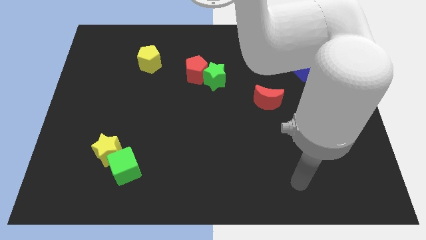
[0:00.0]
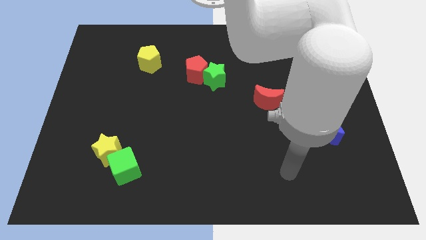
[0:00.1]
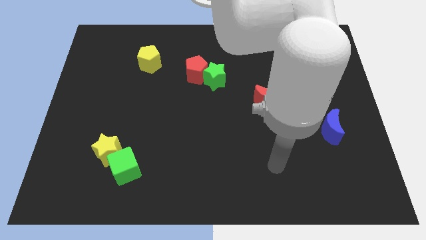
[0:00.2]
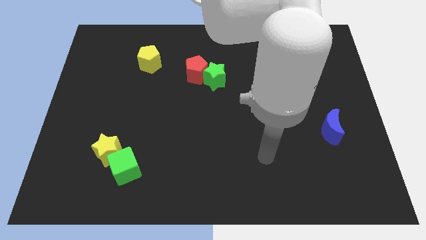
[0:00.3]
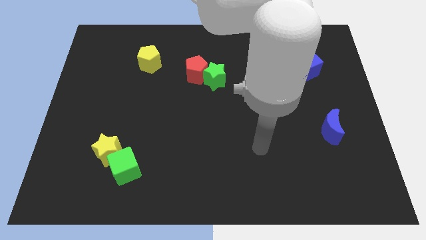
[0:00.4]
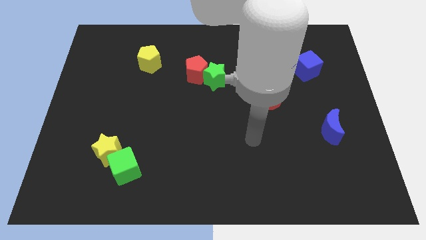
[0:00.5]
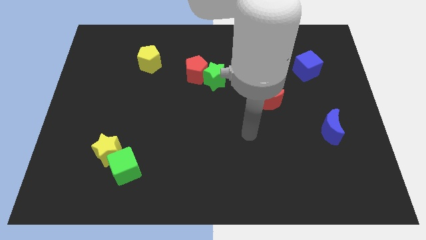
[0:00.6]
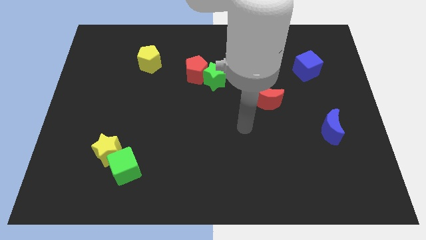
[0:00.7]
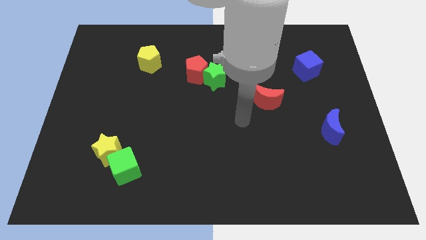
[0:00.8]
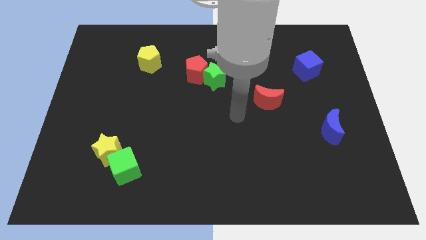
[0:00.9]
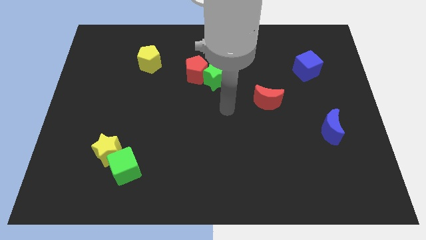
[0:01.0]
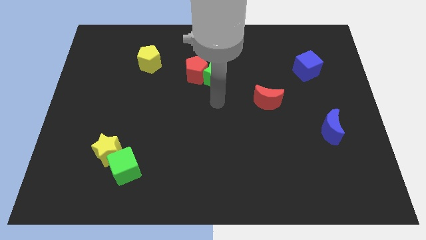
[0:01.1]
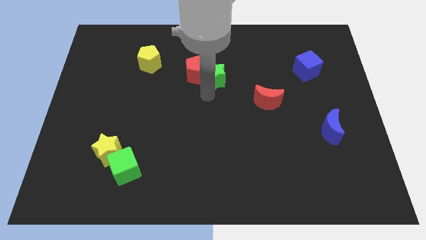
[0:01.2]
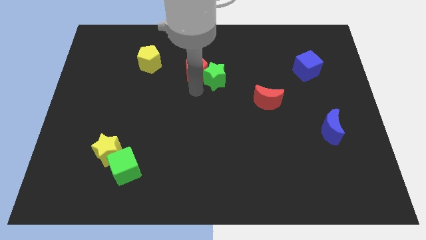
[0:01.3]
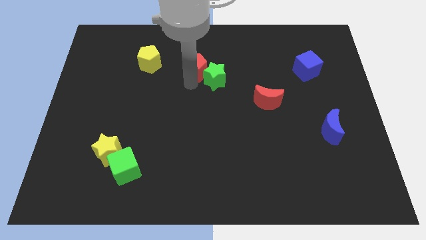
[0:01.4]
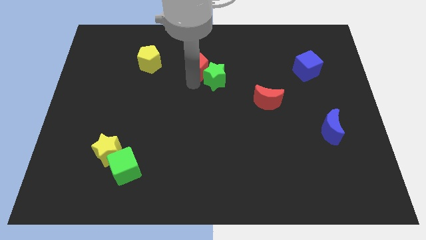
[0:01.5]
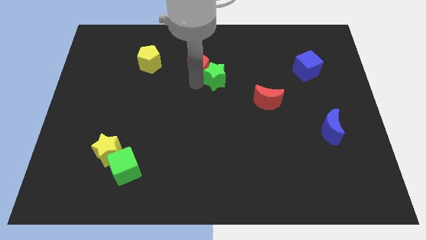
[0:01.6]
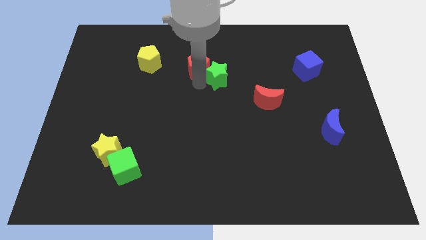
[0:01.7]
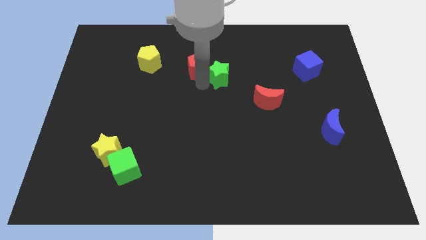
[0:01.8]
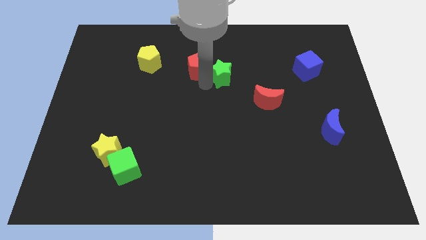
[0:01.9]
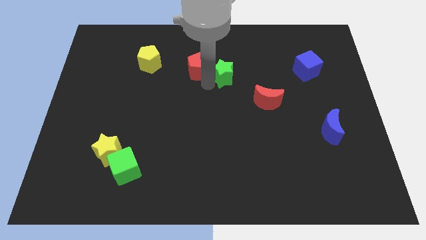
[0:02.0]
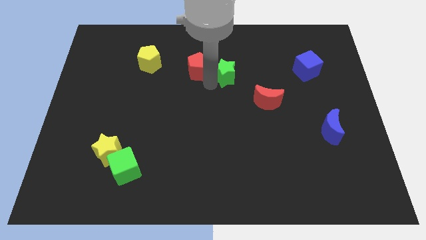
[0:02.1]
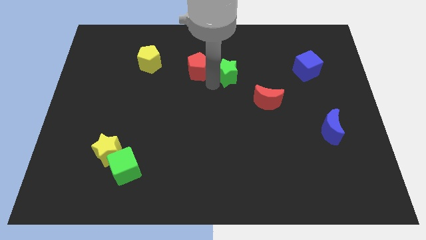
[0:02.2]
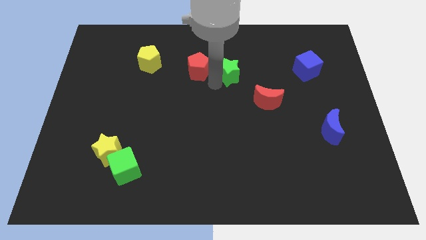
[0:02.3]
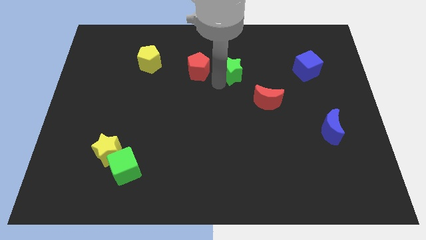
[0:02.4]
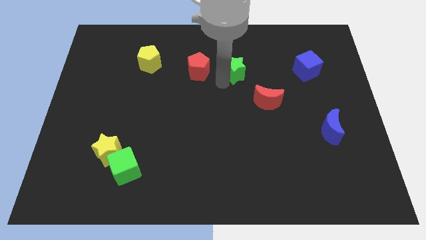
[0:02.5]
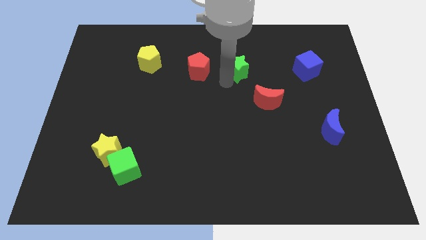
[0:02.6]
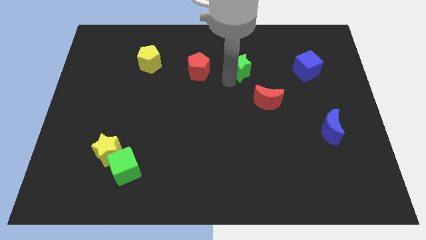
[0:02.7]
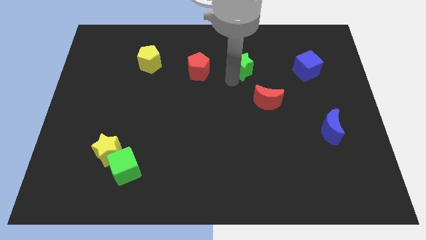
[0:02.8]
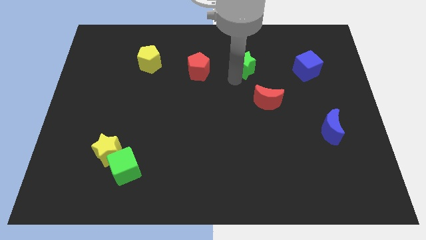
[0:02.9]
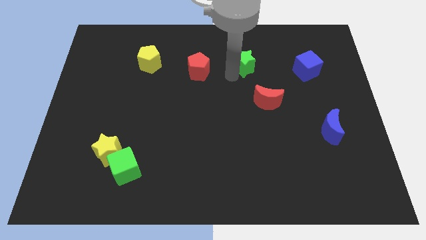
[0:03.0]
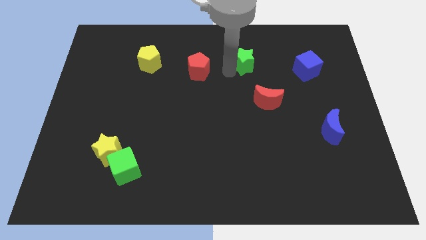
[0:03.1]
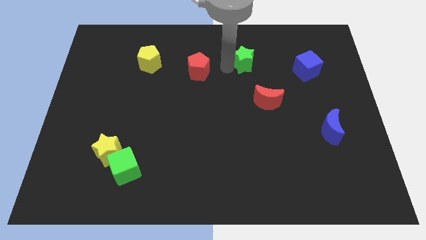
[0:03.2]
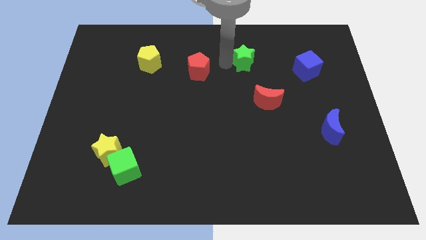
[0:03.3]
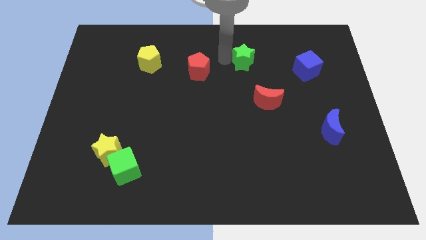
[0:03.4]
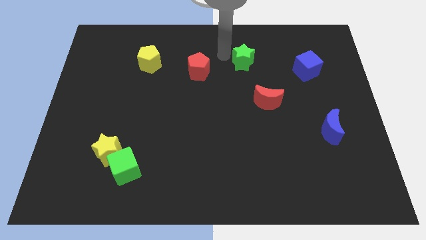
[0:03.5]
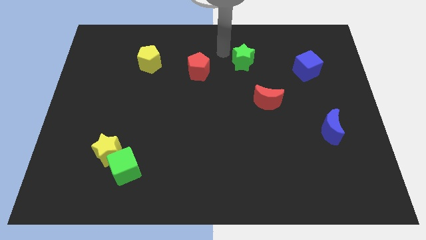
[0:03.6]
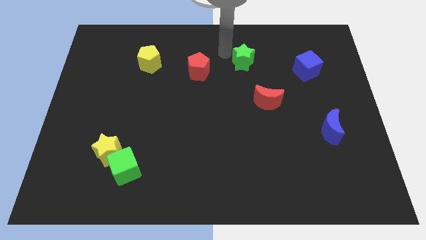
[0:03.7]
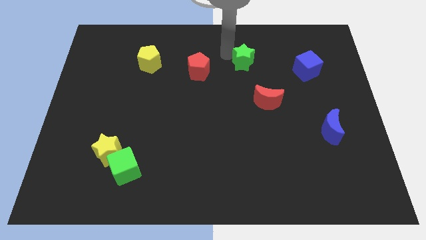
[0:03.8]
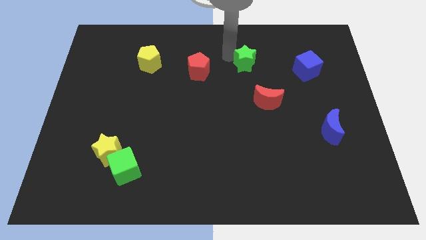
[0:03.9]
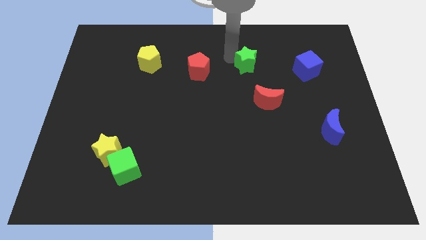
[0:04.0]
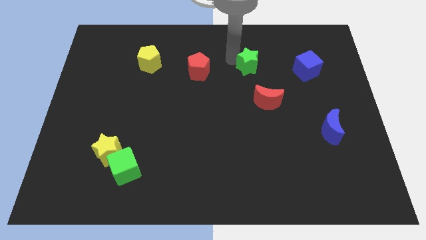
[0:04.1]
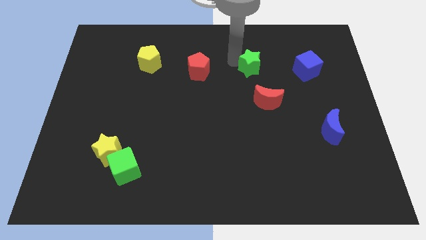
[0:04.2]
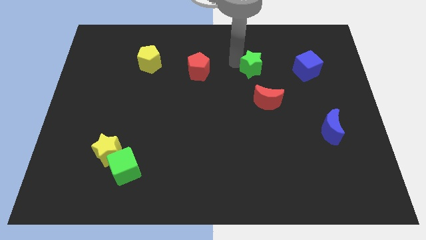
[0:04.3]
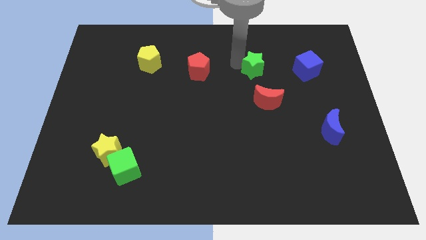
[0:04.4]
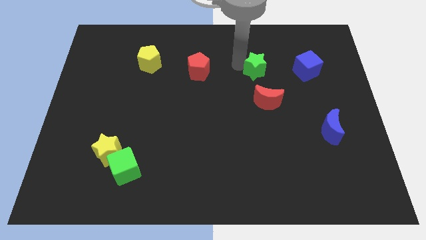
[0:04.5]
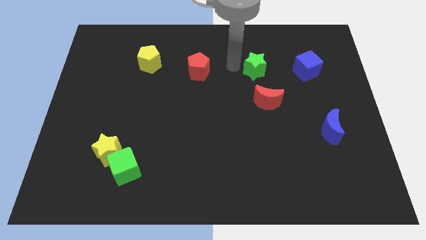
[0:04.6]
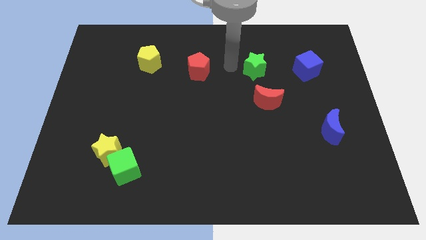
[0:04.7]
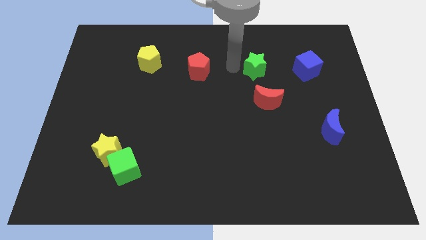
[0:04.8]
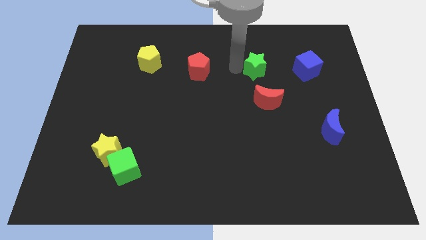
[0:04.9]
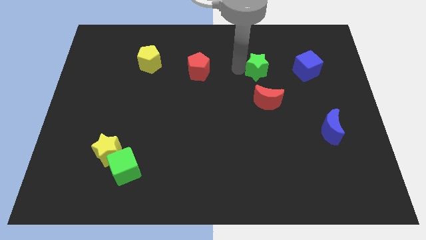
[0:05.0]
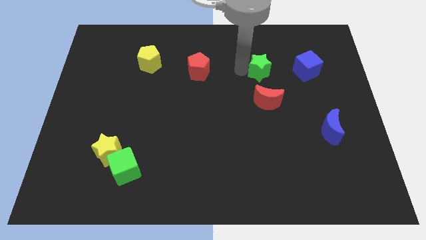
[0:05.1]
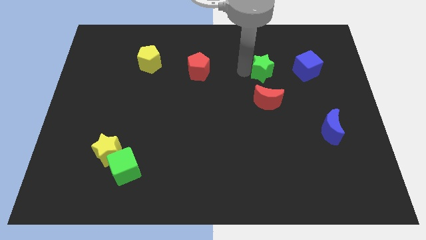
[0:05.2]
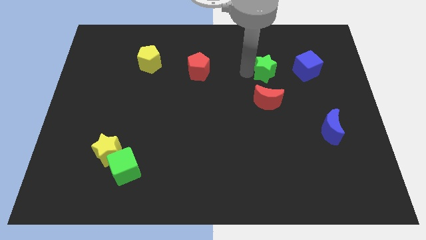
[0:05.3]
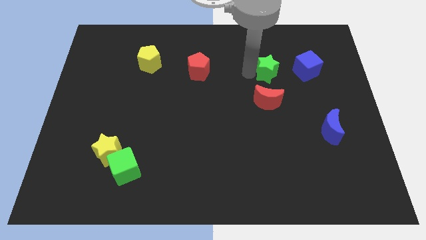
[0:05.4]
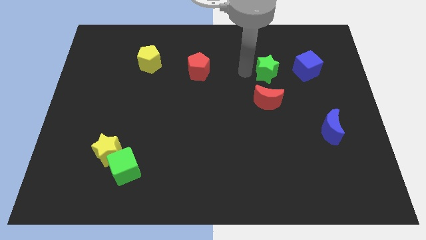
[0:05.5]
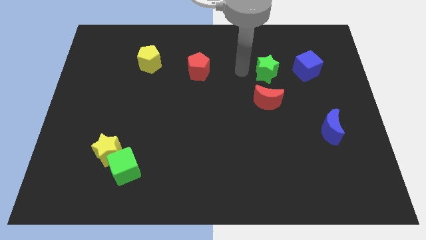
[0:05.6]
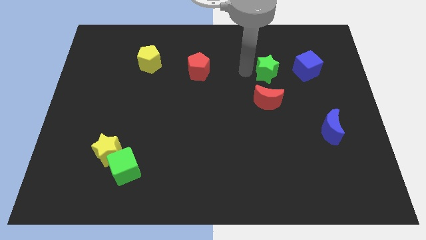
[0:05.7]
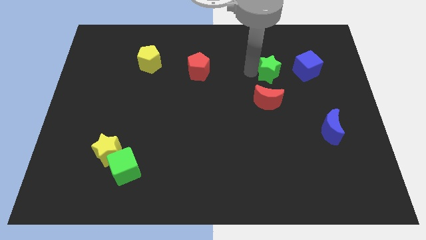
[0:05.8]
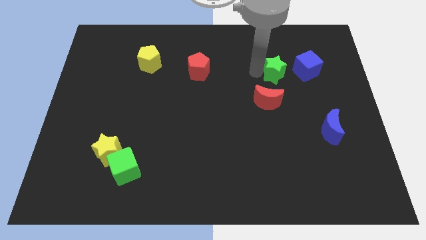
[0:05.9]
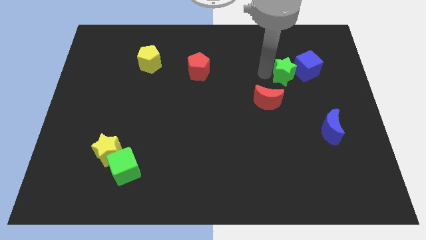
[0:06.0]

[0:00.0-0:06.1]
move the green star towards the blue cube

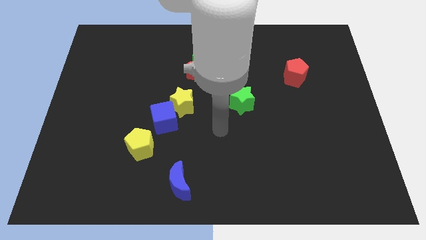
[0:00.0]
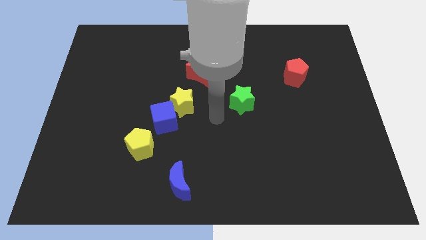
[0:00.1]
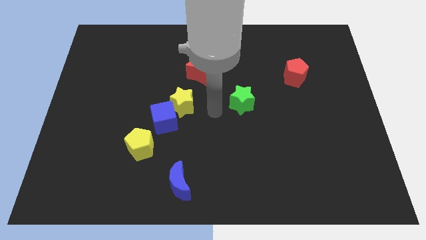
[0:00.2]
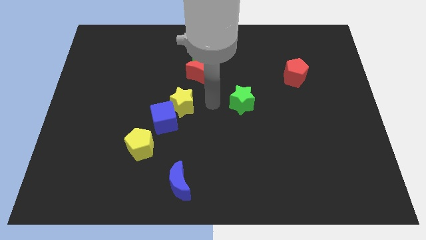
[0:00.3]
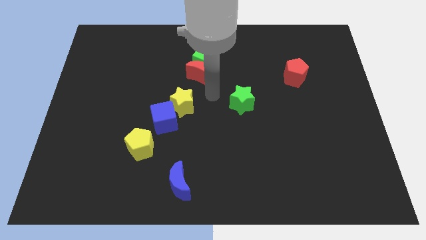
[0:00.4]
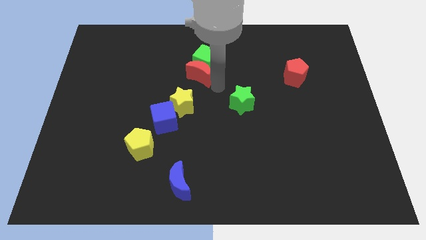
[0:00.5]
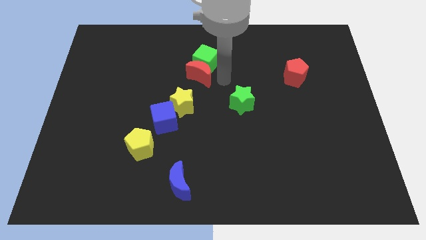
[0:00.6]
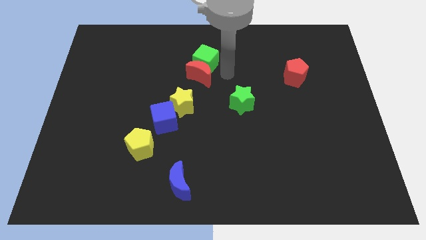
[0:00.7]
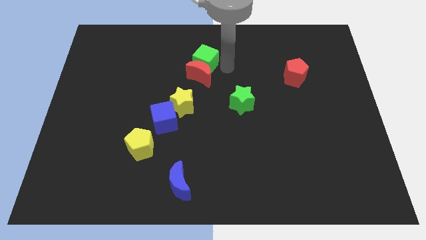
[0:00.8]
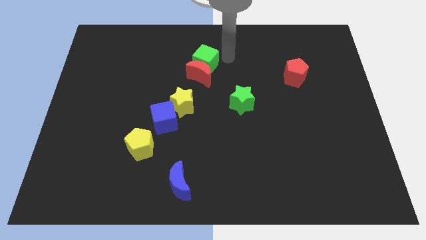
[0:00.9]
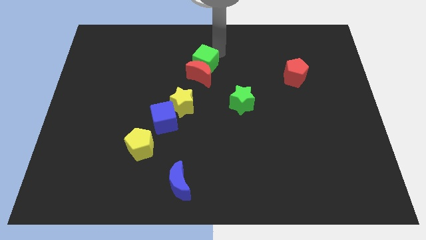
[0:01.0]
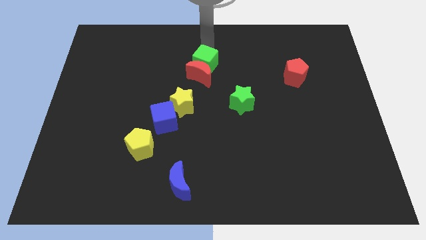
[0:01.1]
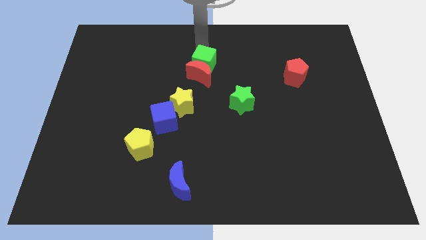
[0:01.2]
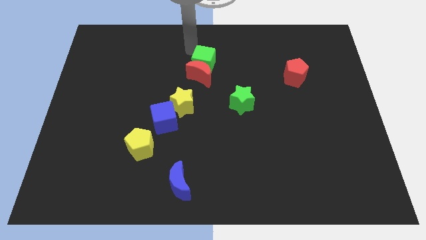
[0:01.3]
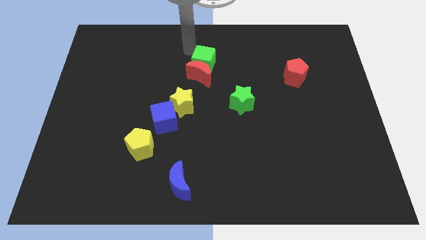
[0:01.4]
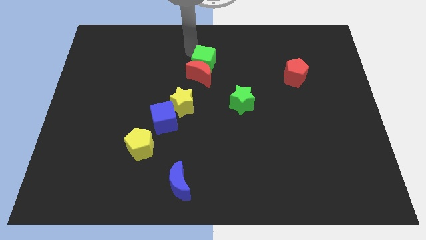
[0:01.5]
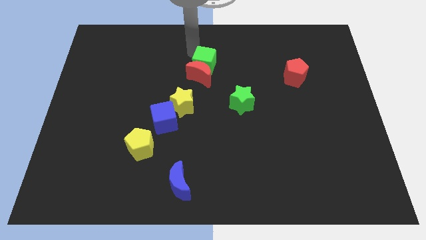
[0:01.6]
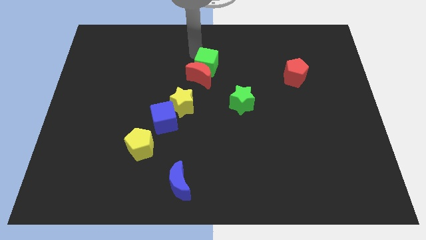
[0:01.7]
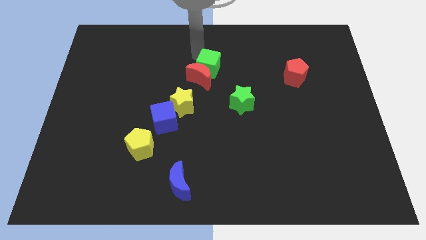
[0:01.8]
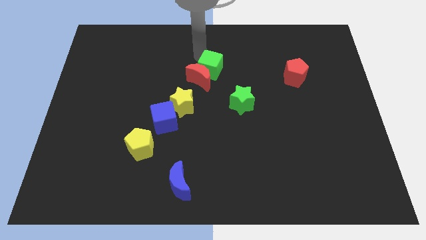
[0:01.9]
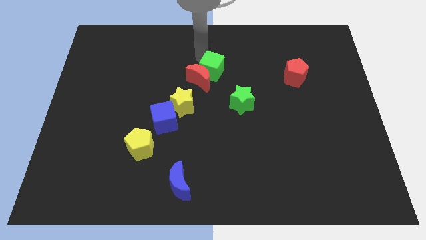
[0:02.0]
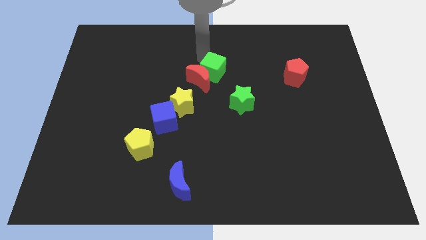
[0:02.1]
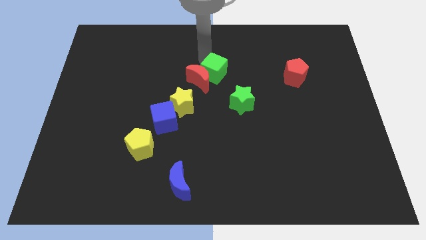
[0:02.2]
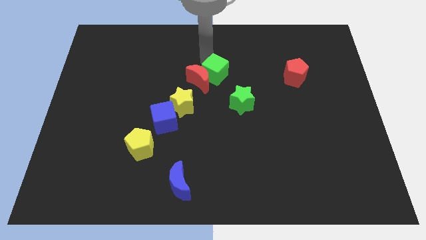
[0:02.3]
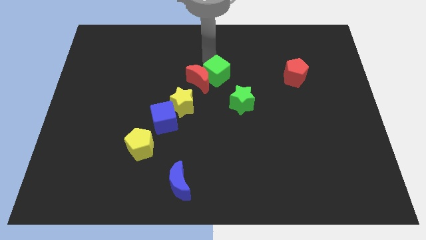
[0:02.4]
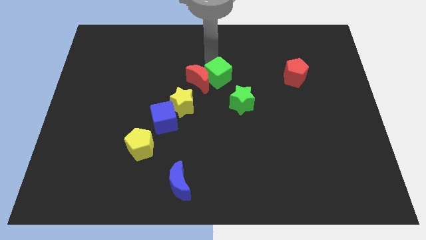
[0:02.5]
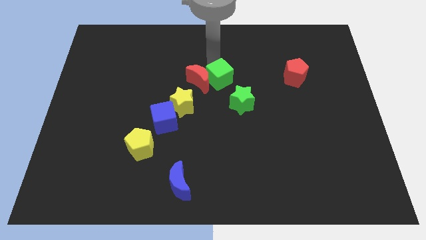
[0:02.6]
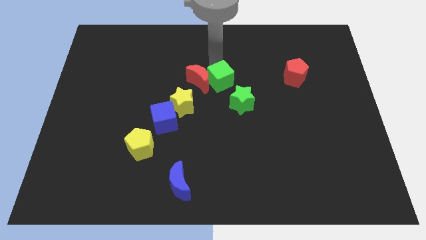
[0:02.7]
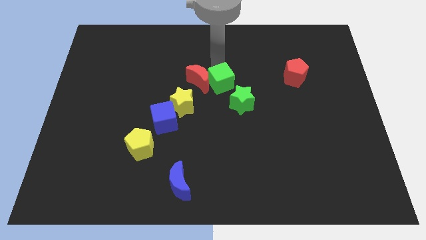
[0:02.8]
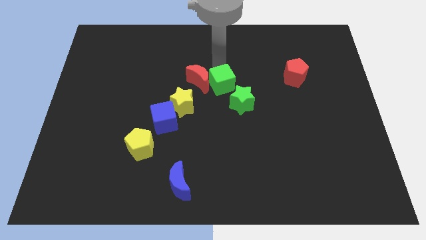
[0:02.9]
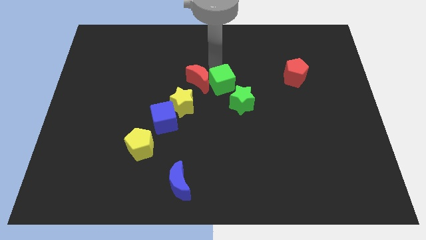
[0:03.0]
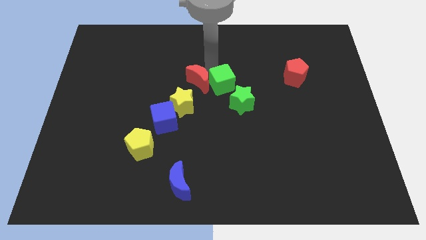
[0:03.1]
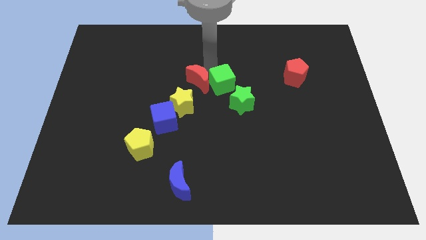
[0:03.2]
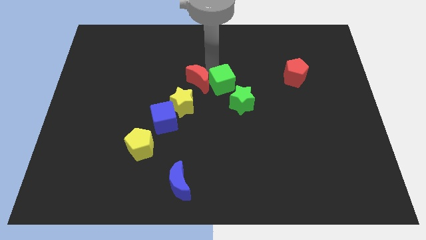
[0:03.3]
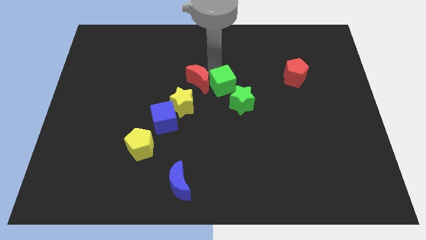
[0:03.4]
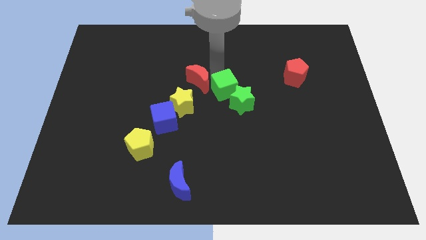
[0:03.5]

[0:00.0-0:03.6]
slide the green cube to the green star
